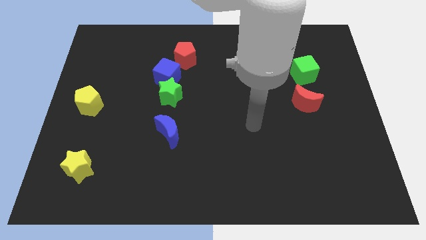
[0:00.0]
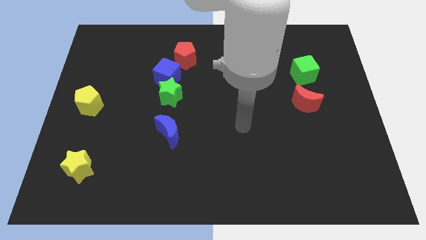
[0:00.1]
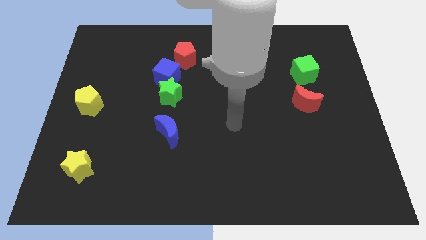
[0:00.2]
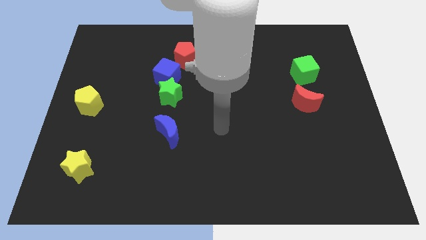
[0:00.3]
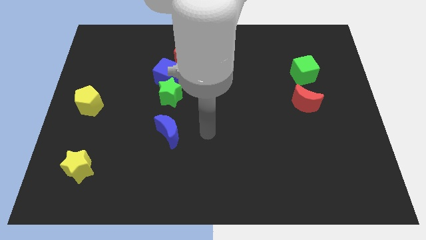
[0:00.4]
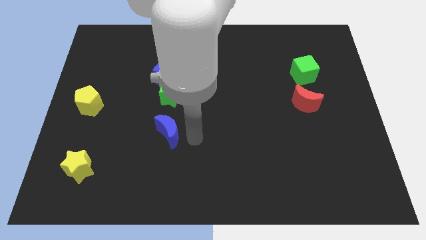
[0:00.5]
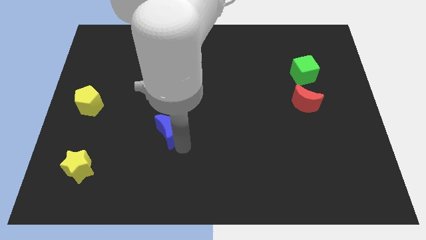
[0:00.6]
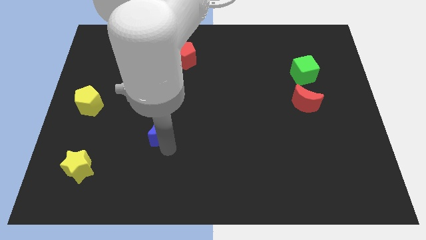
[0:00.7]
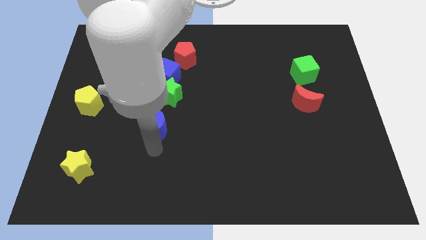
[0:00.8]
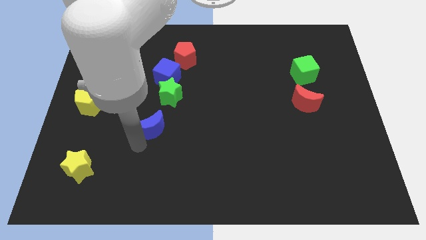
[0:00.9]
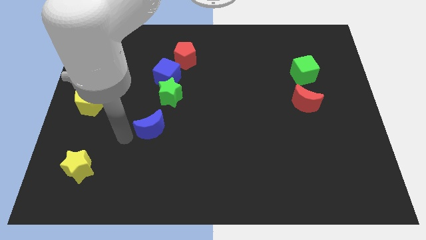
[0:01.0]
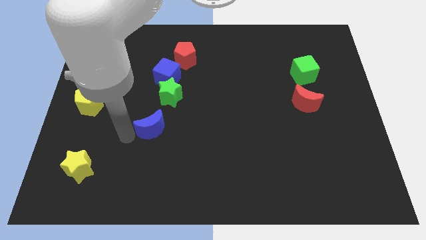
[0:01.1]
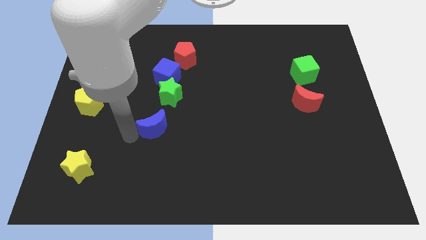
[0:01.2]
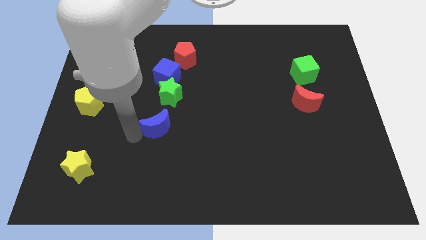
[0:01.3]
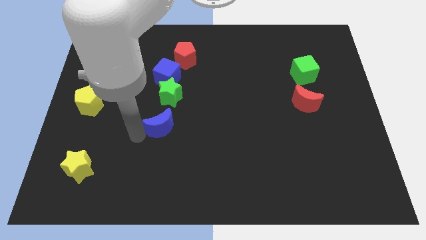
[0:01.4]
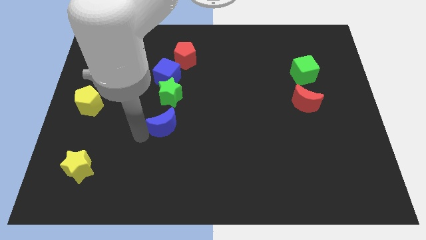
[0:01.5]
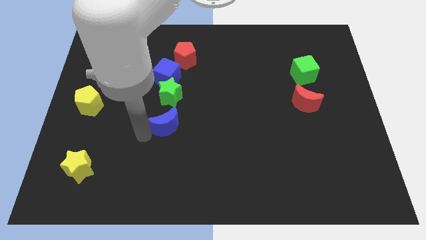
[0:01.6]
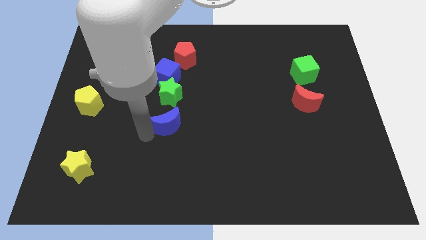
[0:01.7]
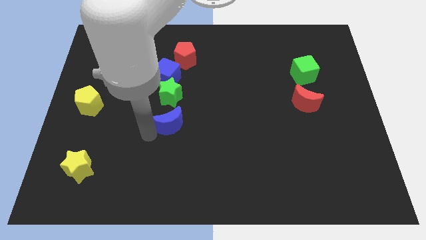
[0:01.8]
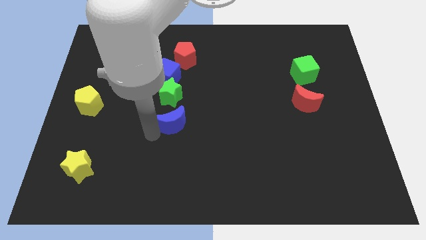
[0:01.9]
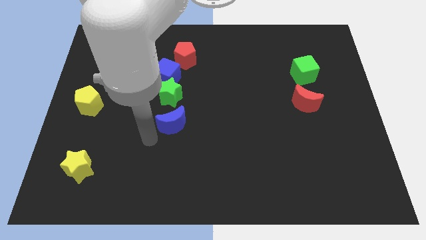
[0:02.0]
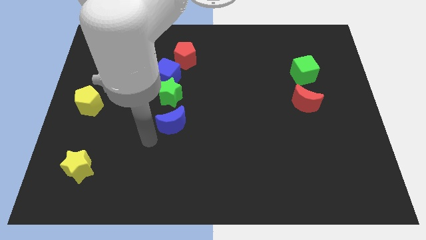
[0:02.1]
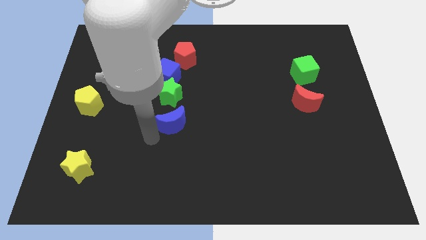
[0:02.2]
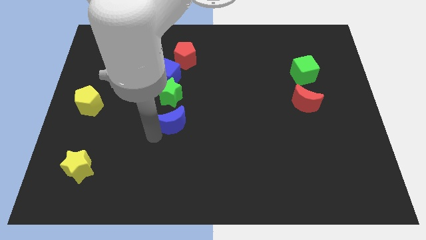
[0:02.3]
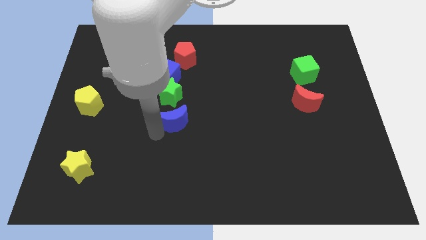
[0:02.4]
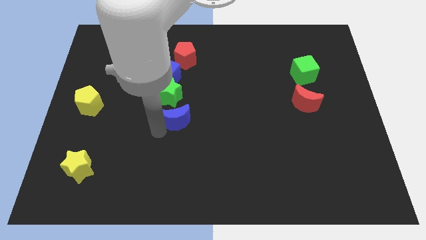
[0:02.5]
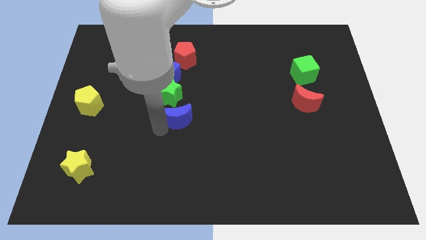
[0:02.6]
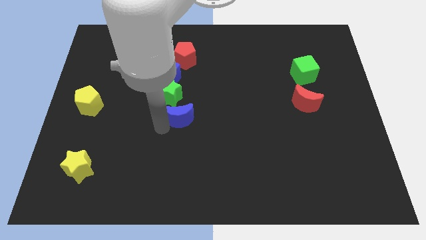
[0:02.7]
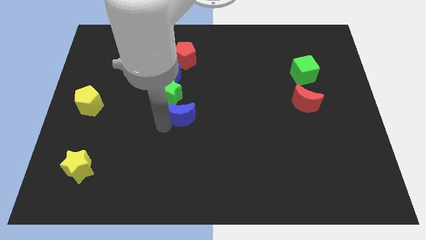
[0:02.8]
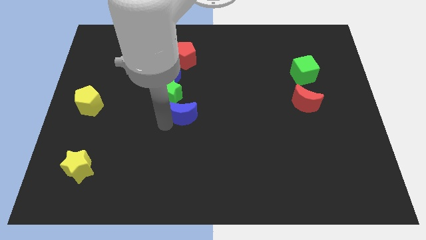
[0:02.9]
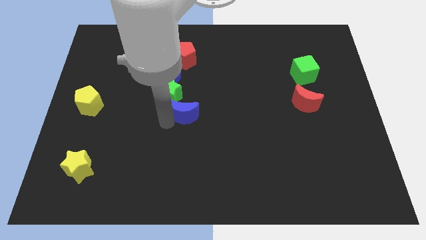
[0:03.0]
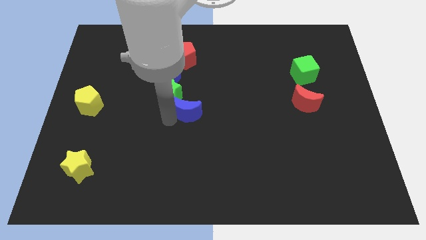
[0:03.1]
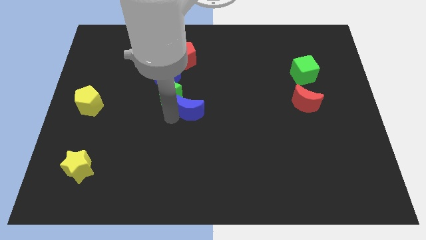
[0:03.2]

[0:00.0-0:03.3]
move the blue moon diagonally up and right a little

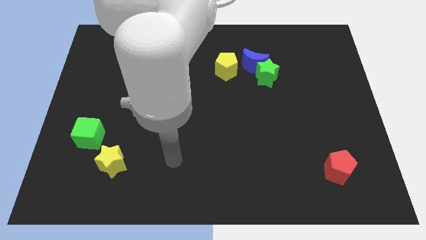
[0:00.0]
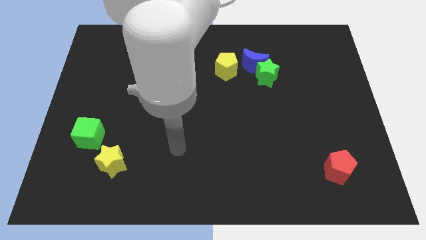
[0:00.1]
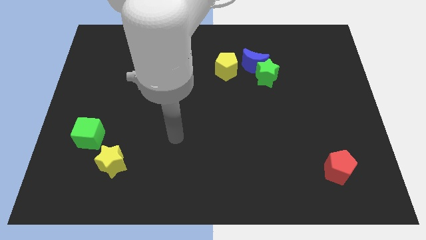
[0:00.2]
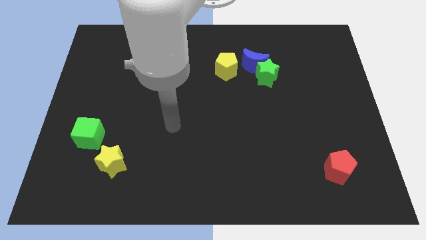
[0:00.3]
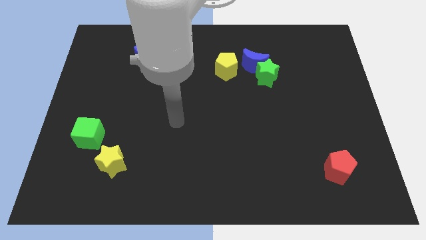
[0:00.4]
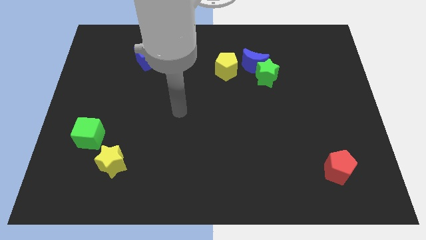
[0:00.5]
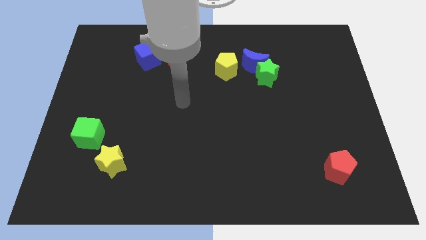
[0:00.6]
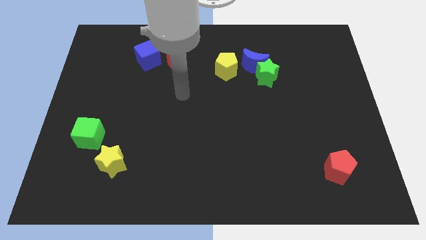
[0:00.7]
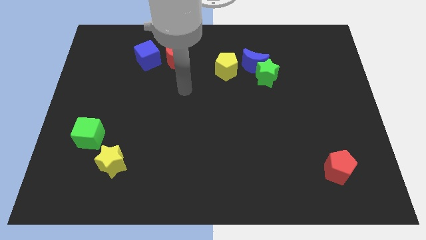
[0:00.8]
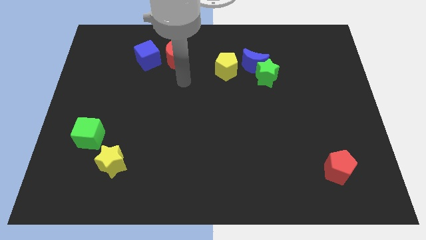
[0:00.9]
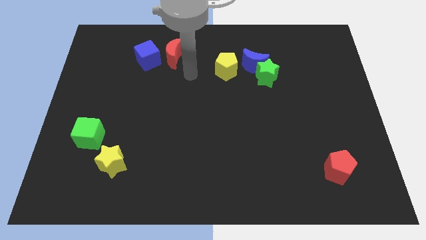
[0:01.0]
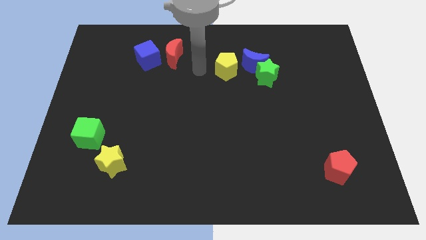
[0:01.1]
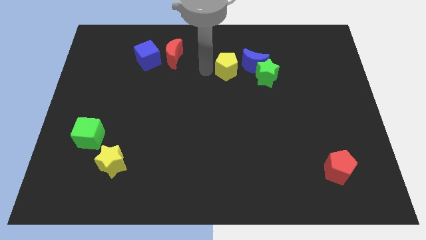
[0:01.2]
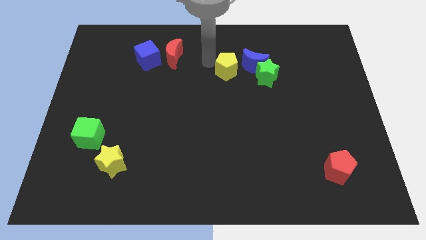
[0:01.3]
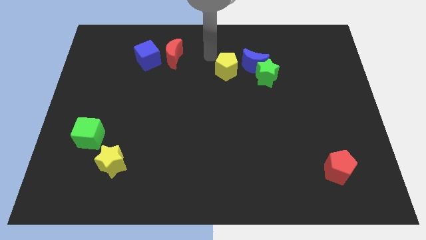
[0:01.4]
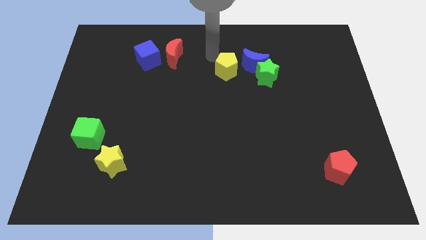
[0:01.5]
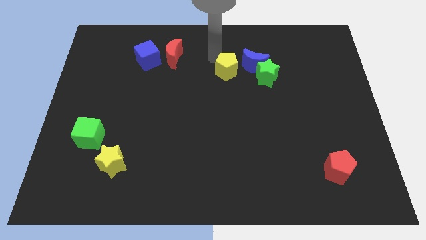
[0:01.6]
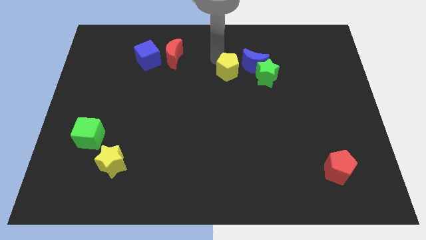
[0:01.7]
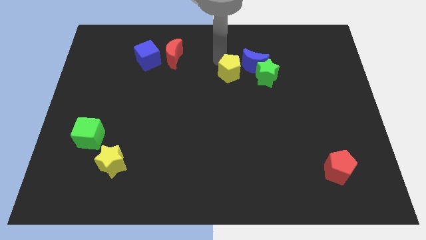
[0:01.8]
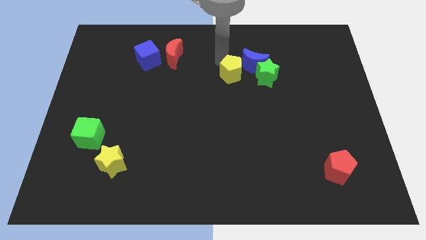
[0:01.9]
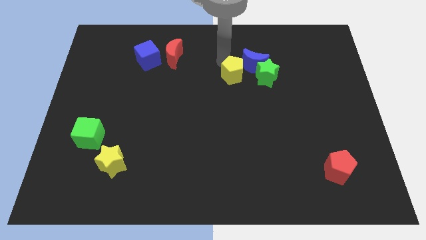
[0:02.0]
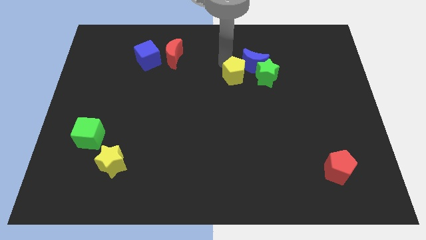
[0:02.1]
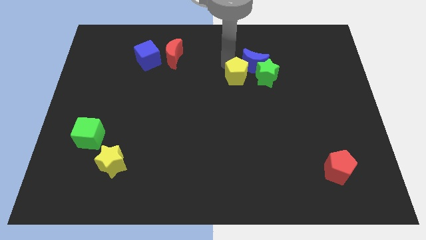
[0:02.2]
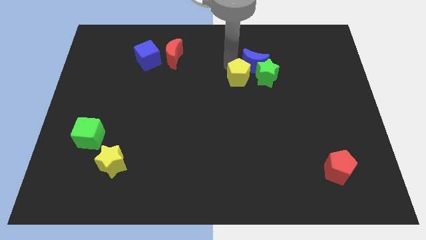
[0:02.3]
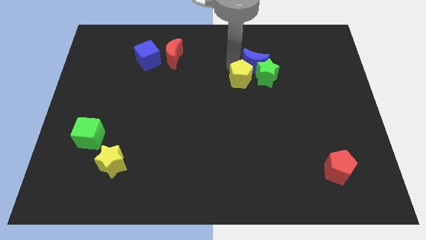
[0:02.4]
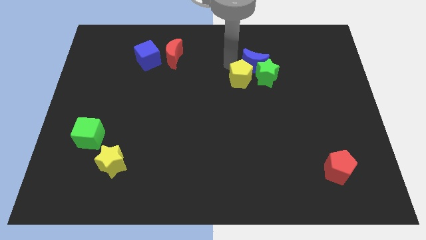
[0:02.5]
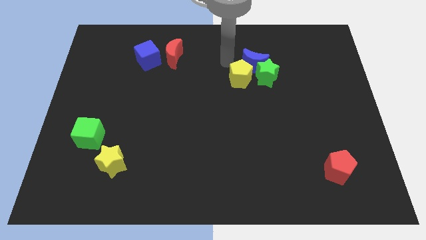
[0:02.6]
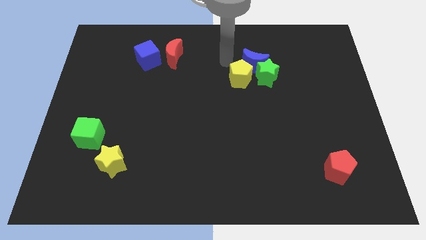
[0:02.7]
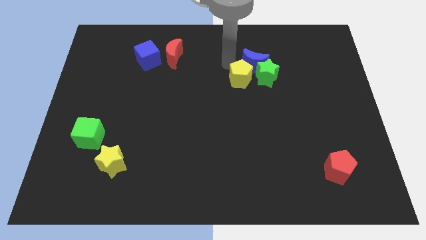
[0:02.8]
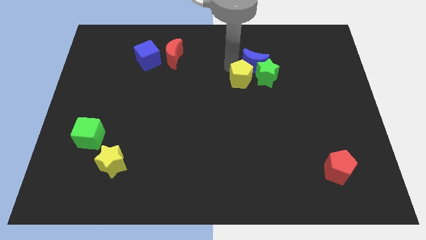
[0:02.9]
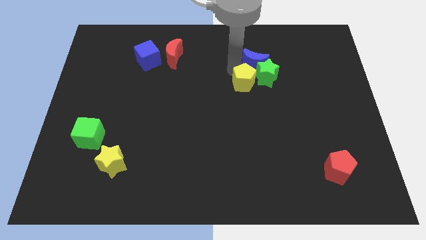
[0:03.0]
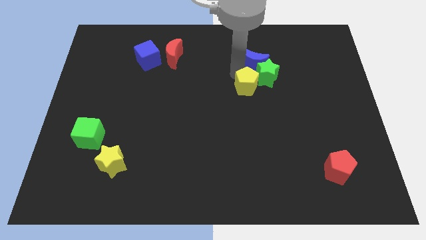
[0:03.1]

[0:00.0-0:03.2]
move the yellow pentagon down and to the right somewhat

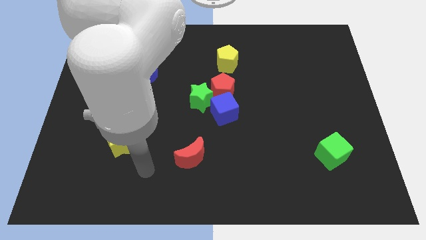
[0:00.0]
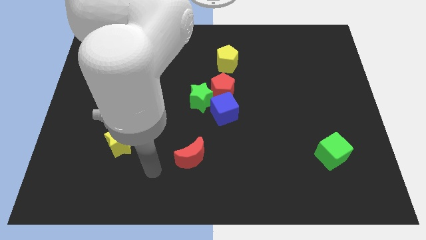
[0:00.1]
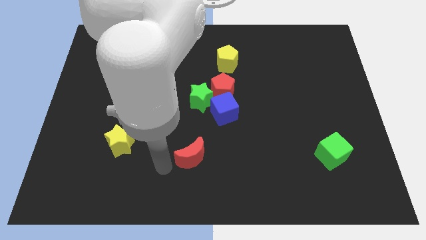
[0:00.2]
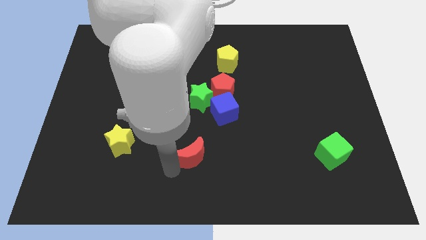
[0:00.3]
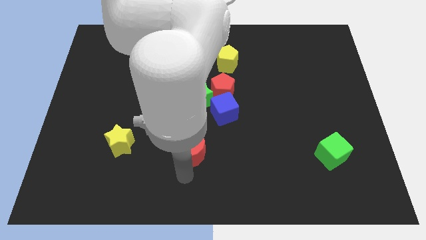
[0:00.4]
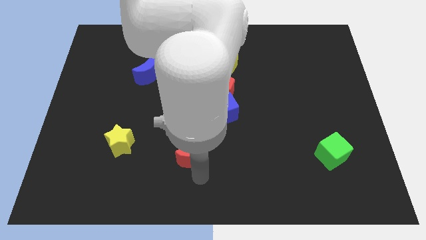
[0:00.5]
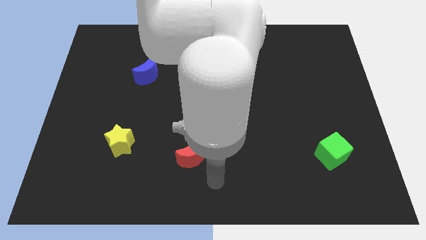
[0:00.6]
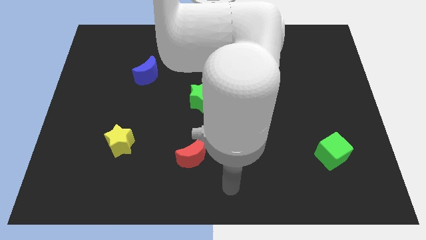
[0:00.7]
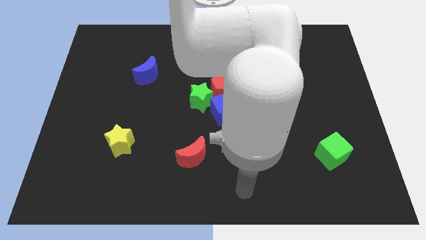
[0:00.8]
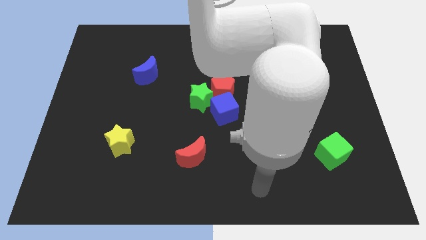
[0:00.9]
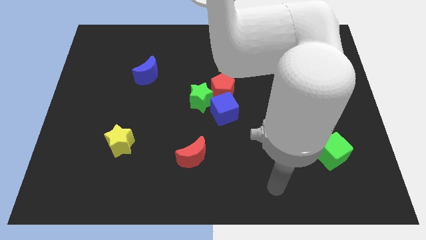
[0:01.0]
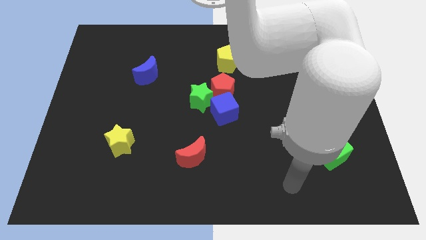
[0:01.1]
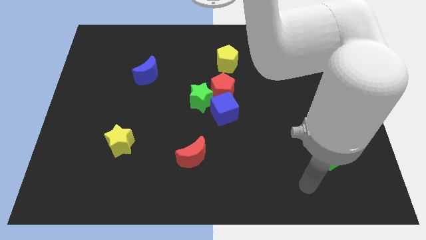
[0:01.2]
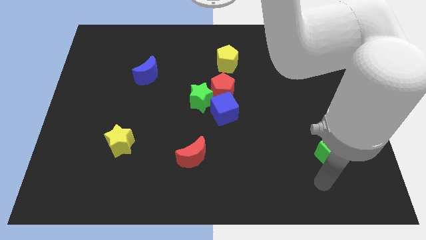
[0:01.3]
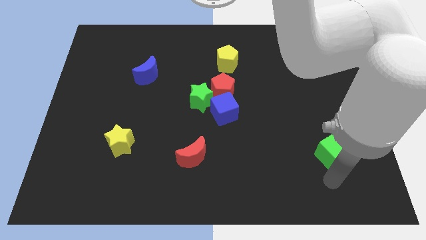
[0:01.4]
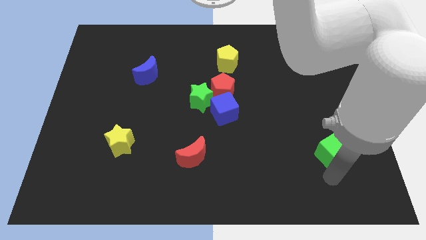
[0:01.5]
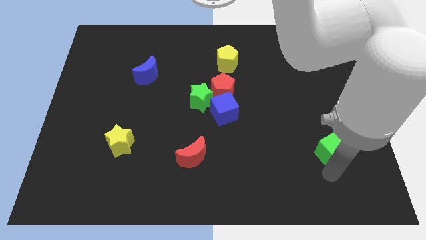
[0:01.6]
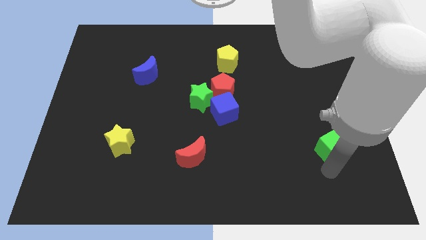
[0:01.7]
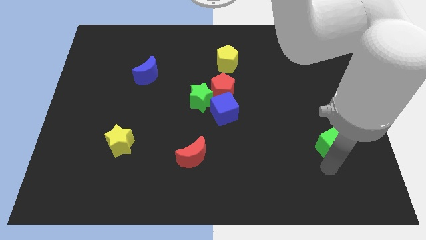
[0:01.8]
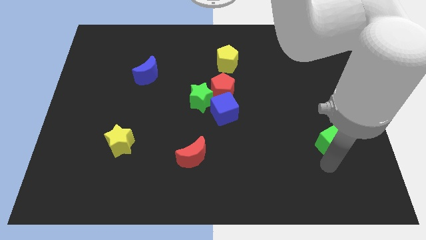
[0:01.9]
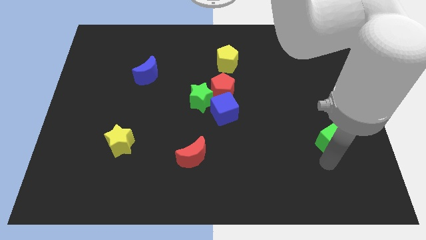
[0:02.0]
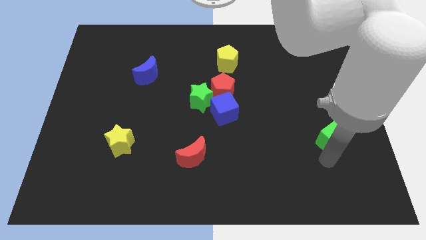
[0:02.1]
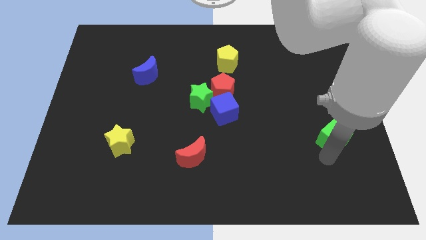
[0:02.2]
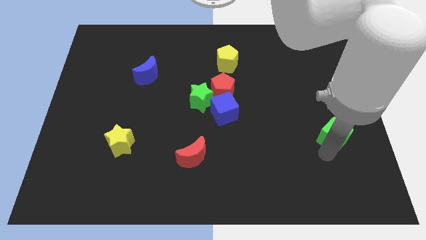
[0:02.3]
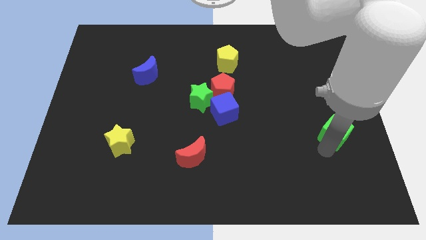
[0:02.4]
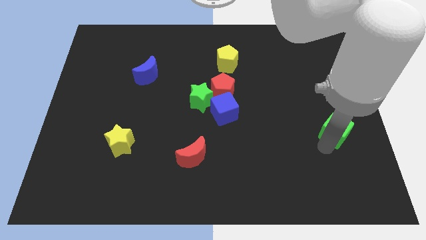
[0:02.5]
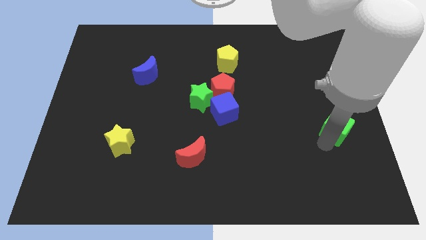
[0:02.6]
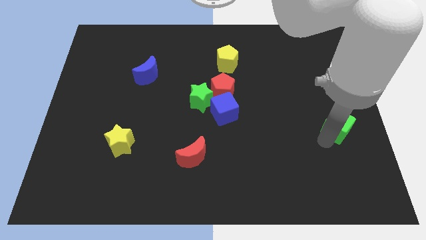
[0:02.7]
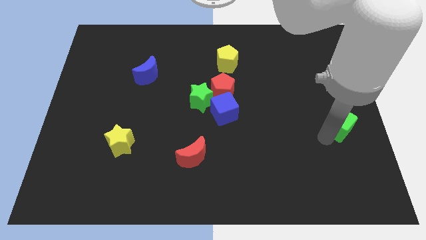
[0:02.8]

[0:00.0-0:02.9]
slightly move the green cube upwards
